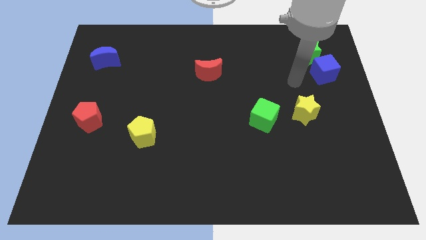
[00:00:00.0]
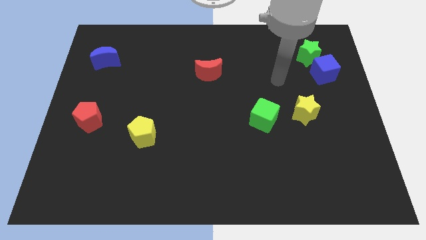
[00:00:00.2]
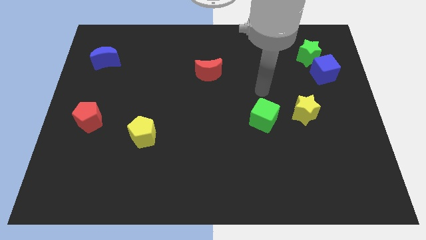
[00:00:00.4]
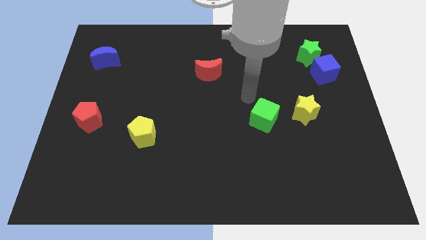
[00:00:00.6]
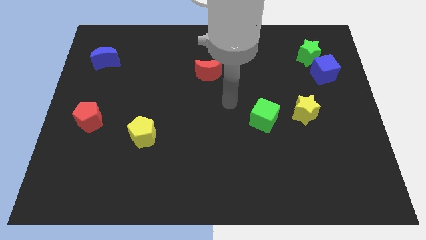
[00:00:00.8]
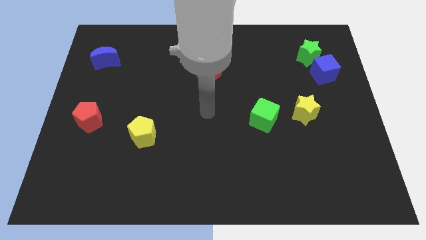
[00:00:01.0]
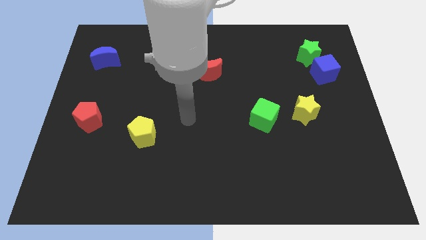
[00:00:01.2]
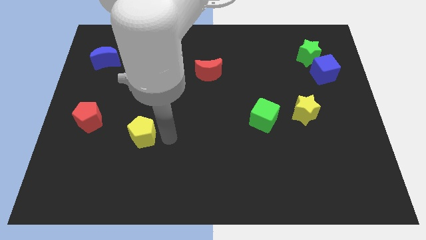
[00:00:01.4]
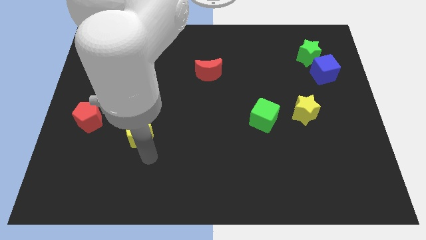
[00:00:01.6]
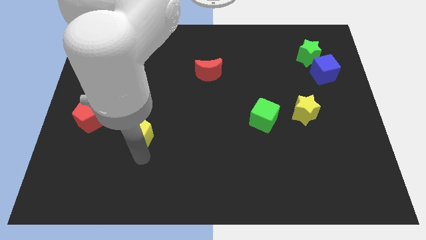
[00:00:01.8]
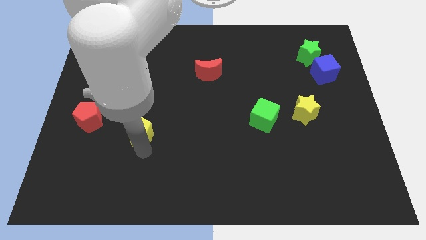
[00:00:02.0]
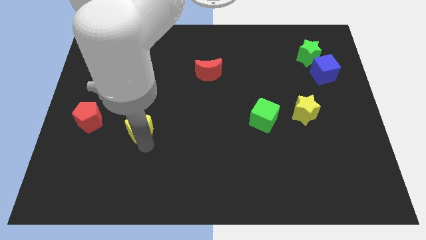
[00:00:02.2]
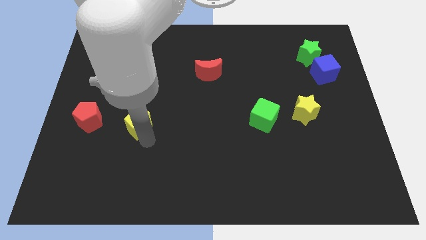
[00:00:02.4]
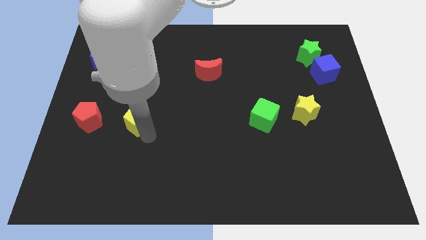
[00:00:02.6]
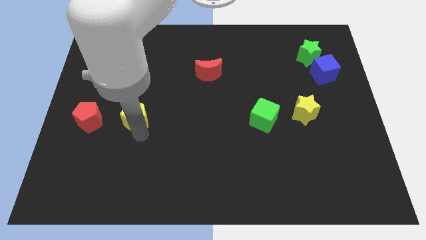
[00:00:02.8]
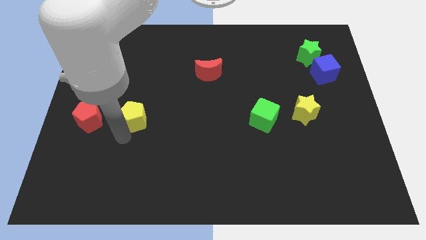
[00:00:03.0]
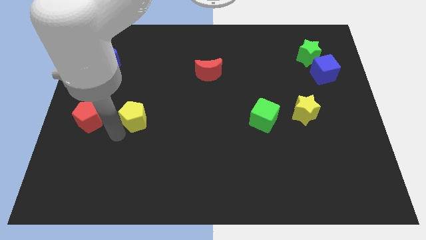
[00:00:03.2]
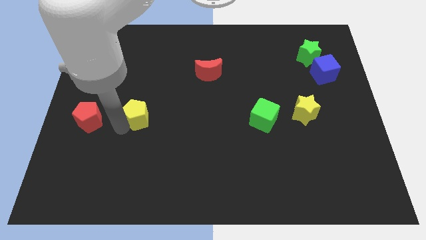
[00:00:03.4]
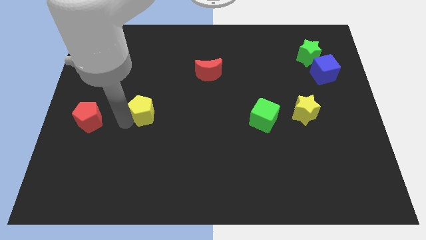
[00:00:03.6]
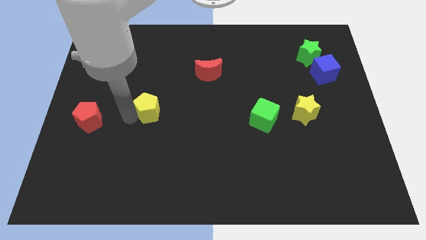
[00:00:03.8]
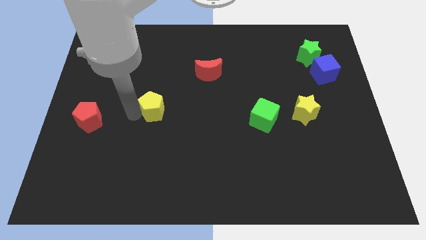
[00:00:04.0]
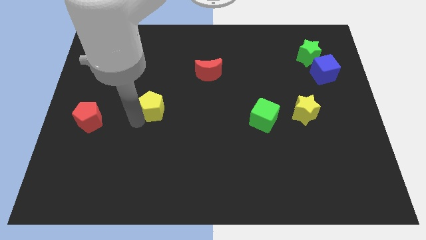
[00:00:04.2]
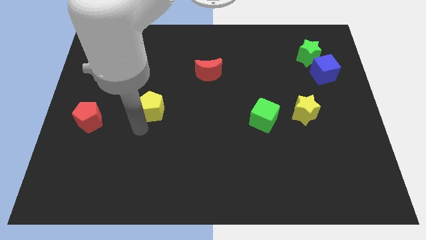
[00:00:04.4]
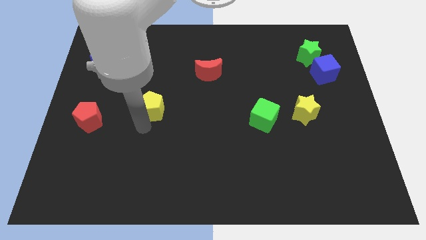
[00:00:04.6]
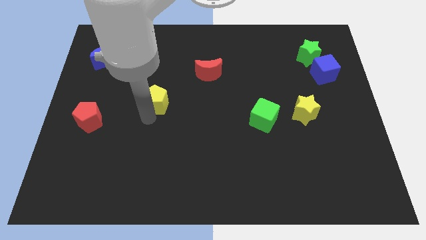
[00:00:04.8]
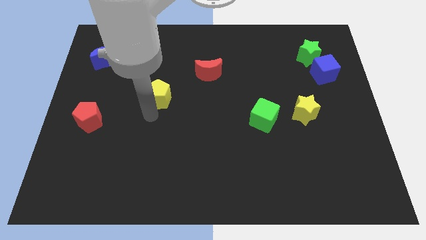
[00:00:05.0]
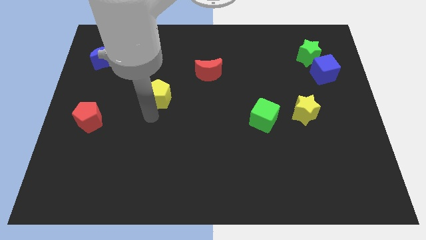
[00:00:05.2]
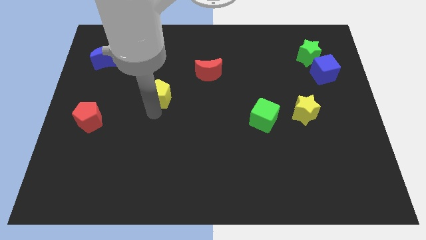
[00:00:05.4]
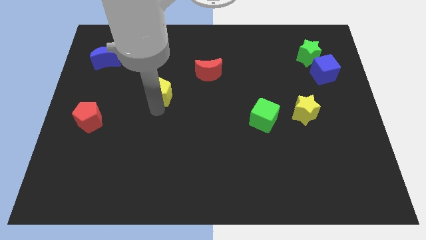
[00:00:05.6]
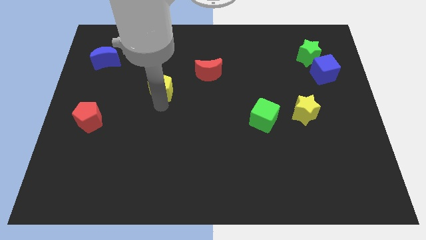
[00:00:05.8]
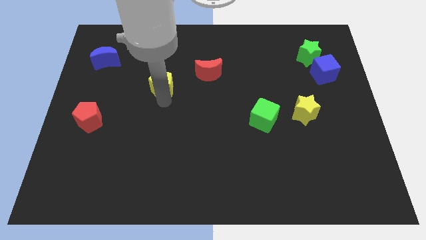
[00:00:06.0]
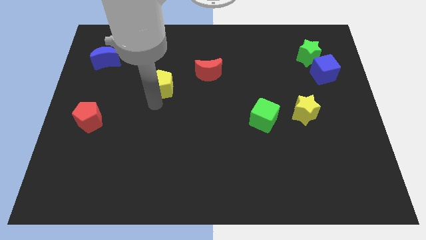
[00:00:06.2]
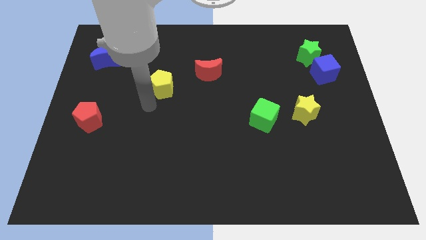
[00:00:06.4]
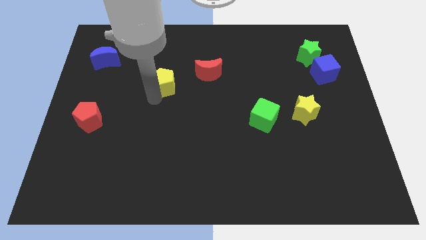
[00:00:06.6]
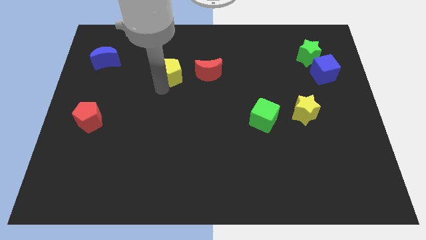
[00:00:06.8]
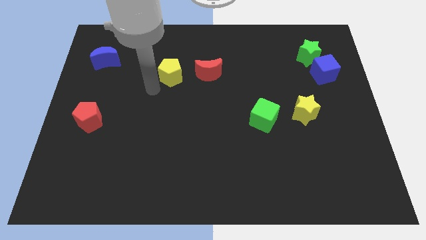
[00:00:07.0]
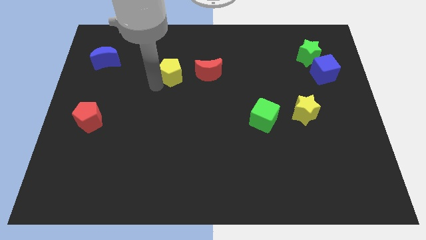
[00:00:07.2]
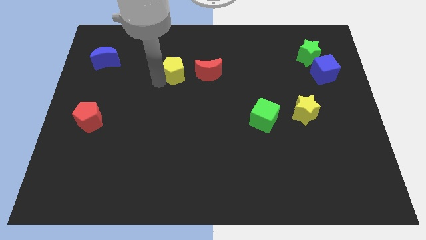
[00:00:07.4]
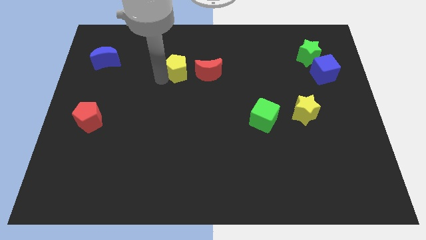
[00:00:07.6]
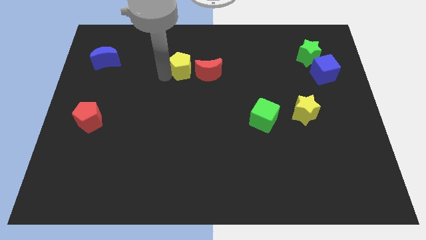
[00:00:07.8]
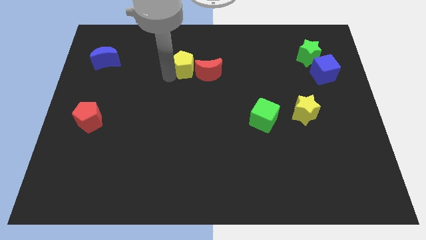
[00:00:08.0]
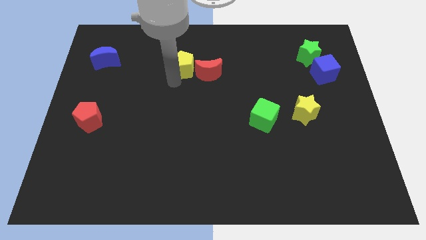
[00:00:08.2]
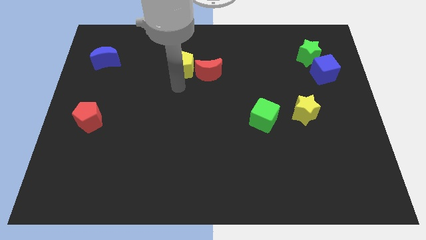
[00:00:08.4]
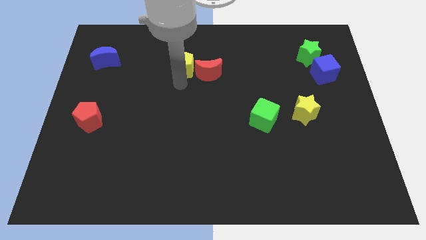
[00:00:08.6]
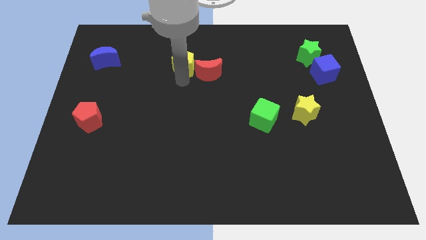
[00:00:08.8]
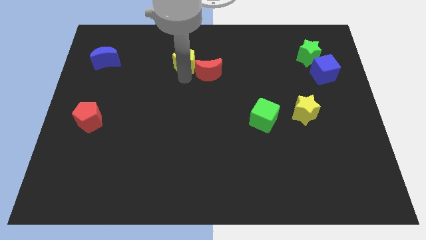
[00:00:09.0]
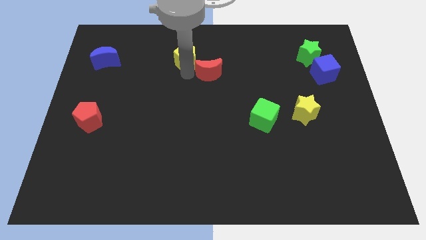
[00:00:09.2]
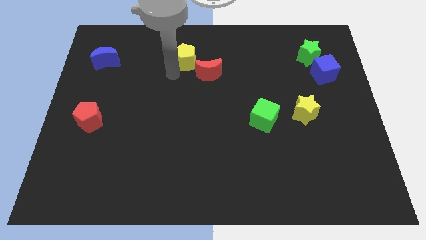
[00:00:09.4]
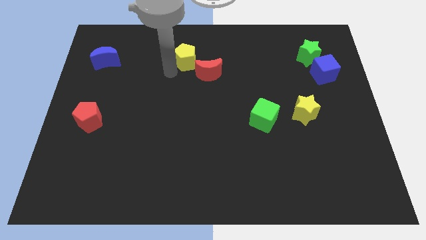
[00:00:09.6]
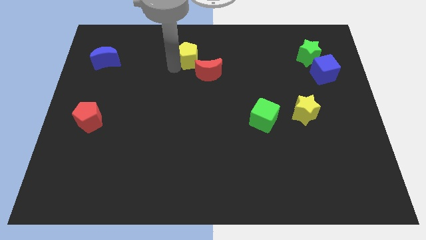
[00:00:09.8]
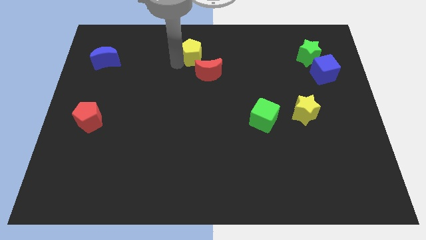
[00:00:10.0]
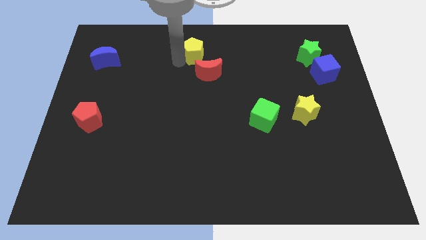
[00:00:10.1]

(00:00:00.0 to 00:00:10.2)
move the yellow pentagon to the towards your base

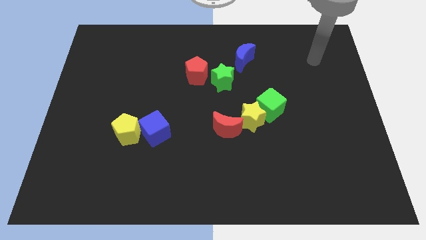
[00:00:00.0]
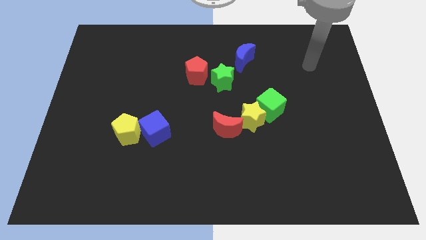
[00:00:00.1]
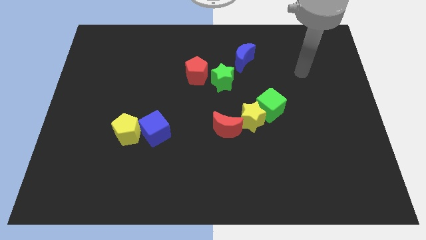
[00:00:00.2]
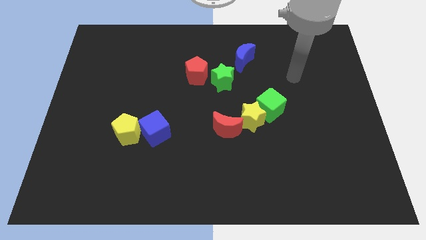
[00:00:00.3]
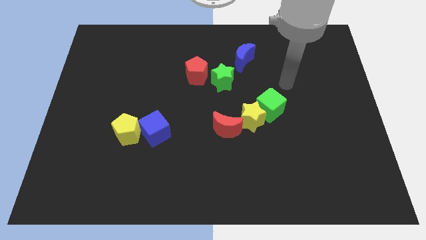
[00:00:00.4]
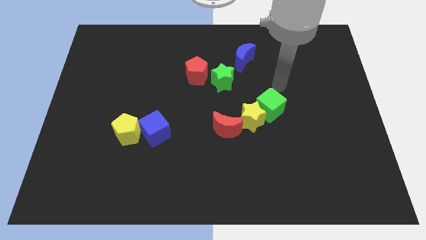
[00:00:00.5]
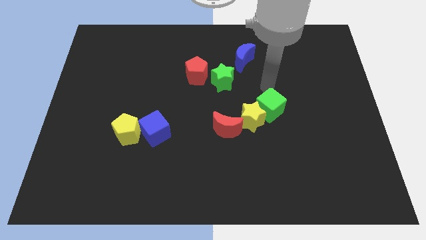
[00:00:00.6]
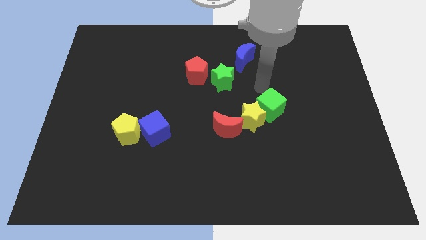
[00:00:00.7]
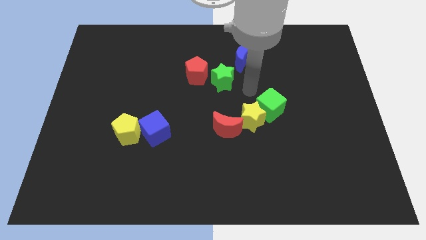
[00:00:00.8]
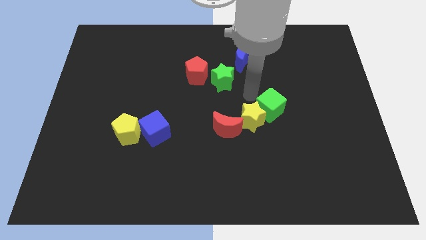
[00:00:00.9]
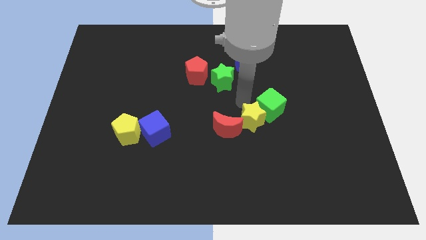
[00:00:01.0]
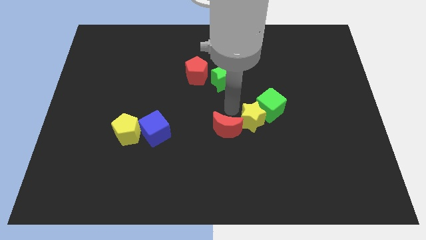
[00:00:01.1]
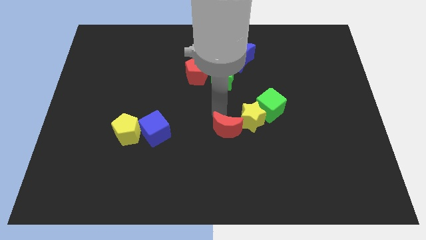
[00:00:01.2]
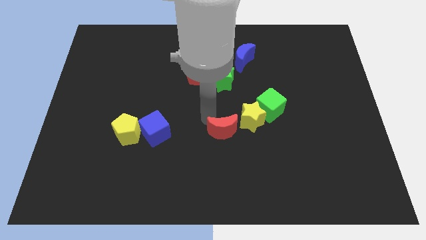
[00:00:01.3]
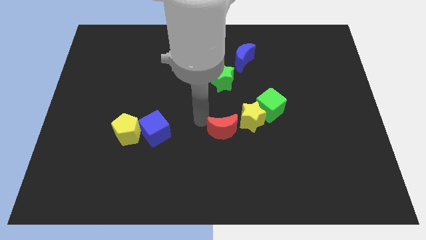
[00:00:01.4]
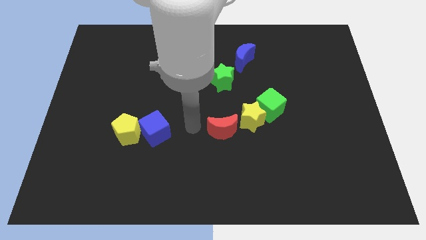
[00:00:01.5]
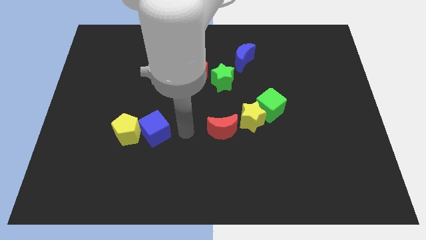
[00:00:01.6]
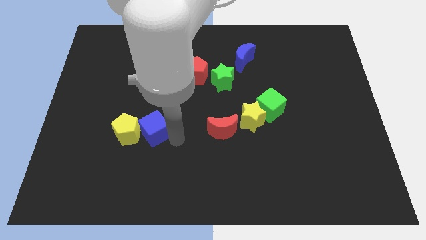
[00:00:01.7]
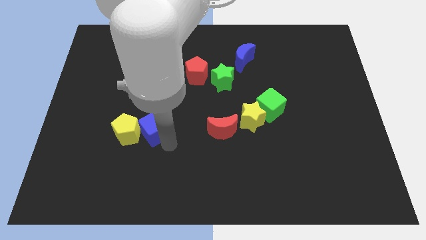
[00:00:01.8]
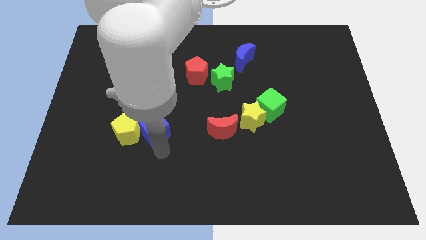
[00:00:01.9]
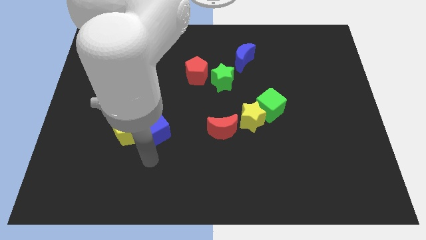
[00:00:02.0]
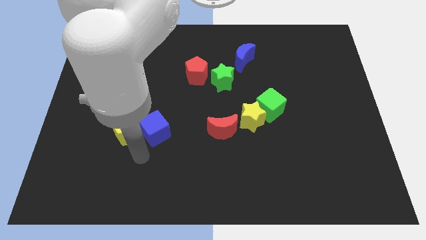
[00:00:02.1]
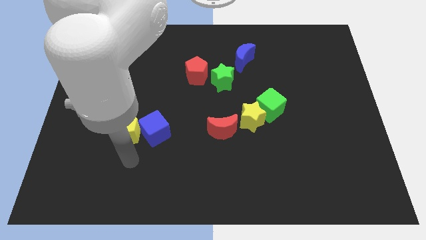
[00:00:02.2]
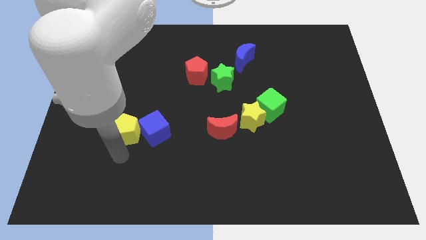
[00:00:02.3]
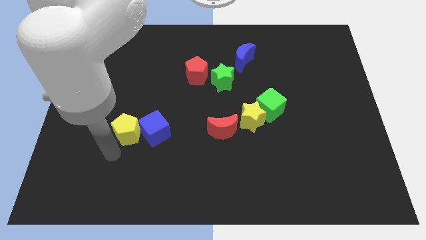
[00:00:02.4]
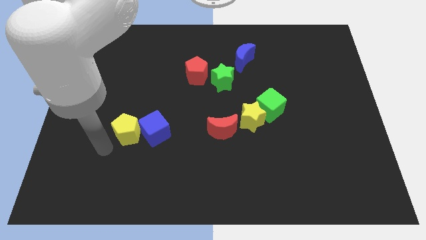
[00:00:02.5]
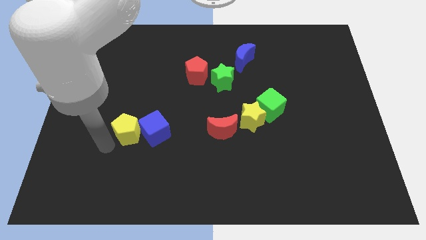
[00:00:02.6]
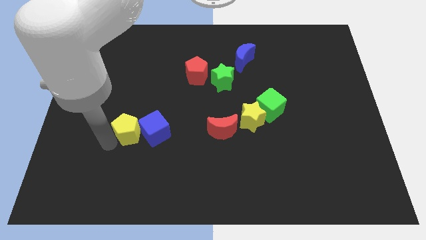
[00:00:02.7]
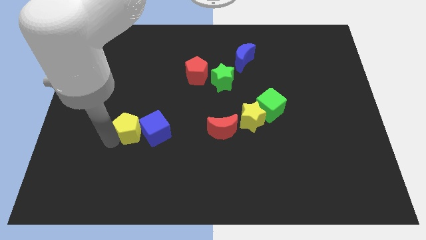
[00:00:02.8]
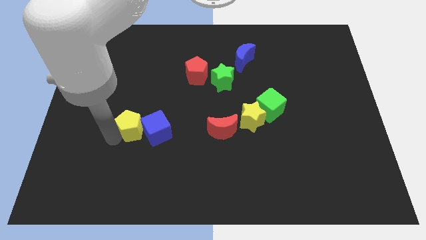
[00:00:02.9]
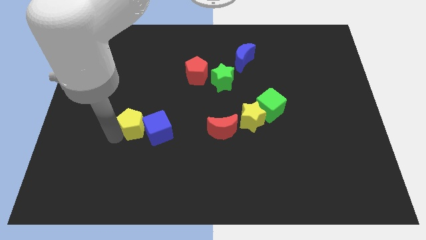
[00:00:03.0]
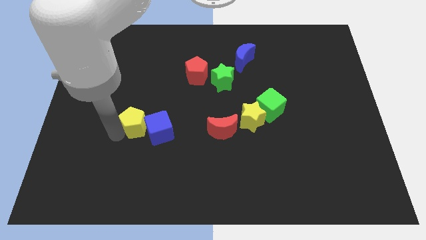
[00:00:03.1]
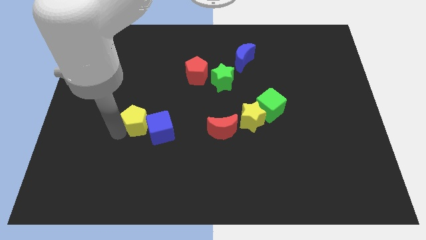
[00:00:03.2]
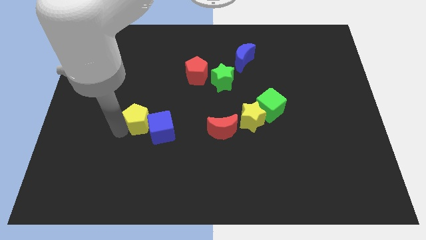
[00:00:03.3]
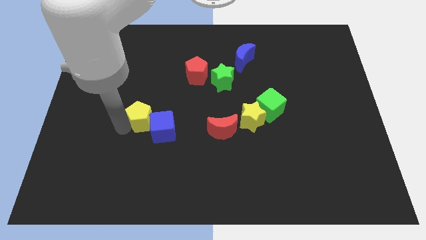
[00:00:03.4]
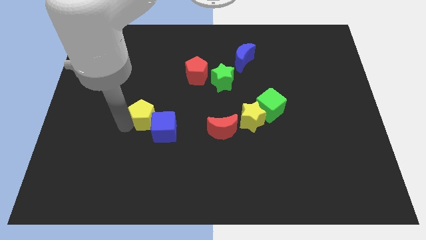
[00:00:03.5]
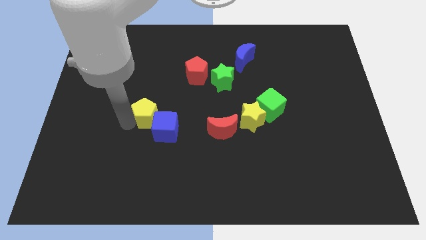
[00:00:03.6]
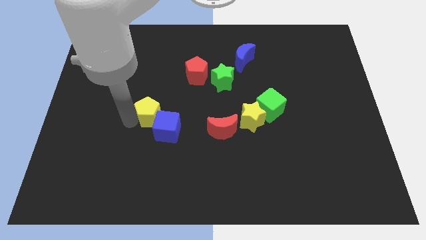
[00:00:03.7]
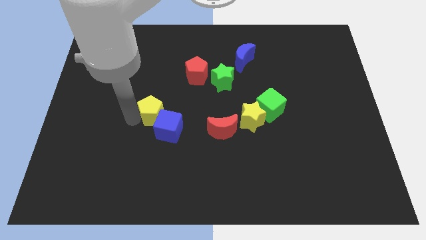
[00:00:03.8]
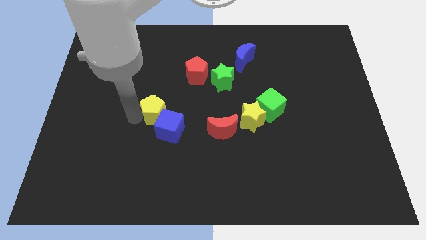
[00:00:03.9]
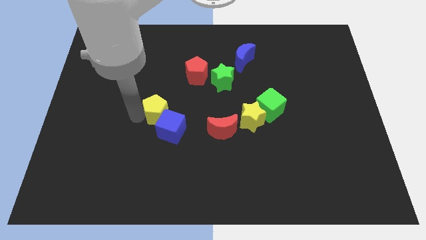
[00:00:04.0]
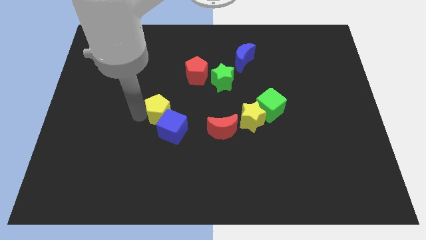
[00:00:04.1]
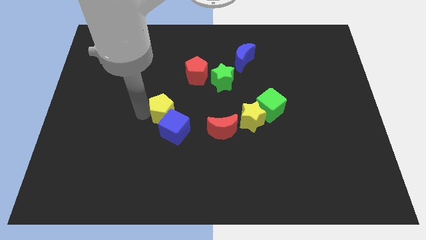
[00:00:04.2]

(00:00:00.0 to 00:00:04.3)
push the yellow pentagon to the center of the board
